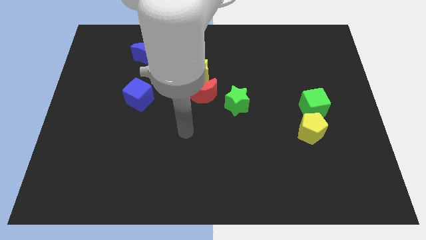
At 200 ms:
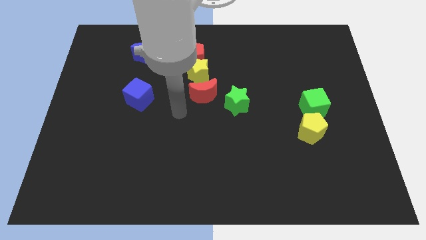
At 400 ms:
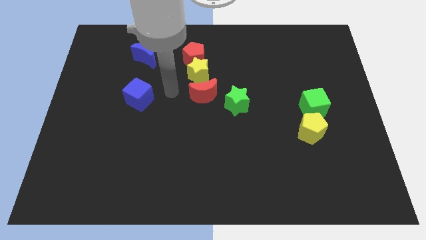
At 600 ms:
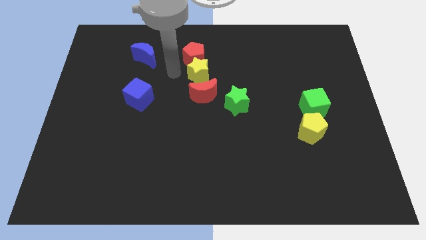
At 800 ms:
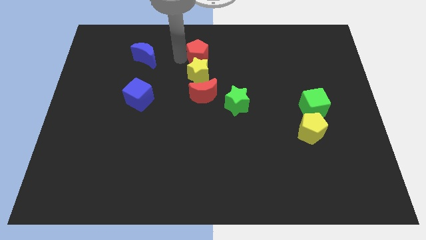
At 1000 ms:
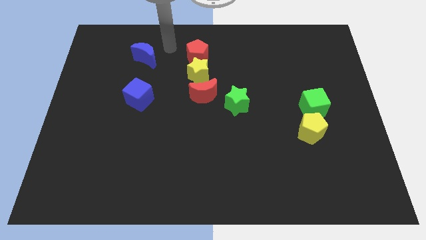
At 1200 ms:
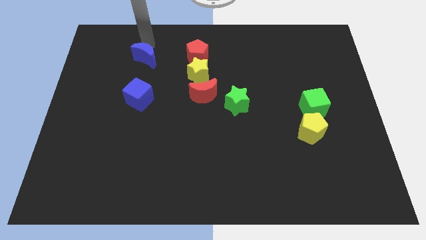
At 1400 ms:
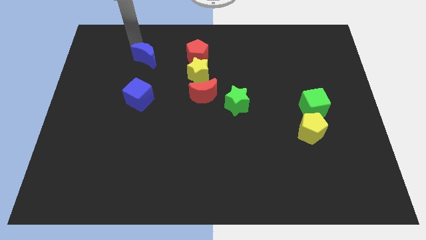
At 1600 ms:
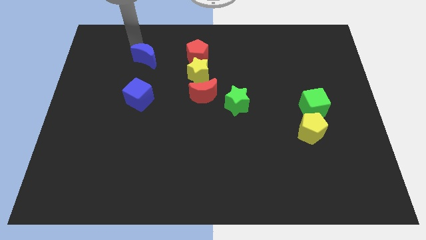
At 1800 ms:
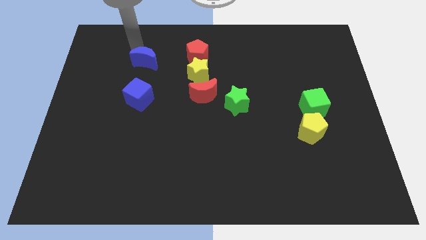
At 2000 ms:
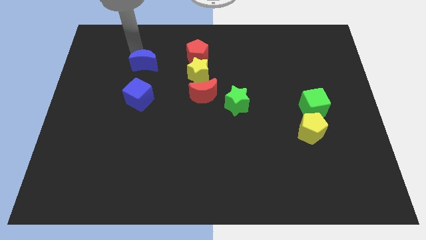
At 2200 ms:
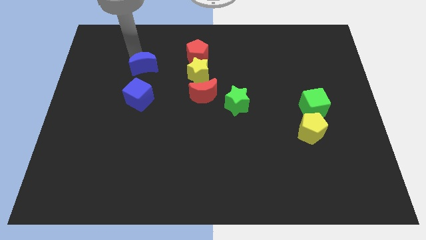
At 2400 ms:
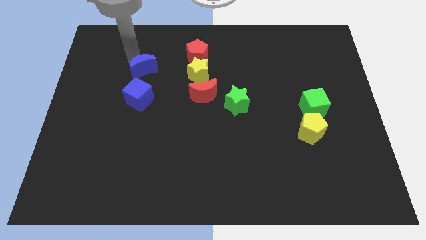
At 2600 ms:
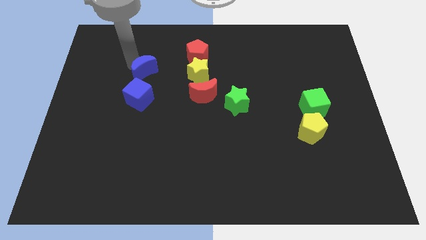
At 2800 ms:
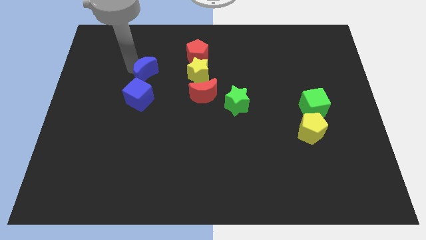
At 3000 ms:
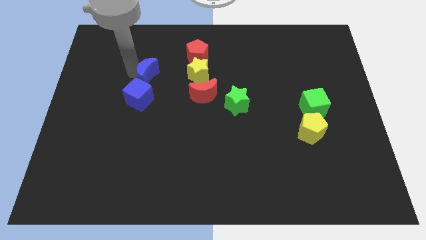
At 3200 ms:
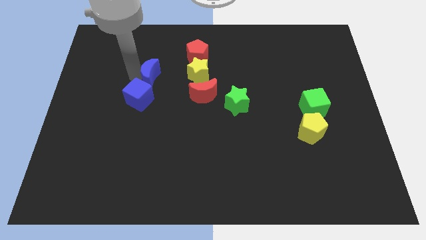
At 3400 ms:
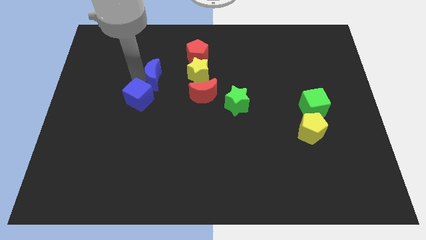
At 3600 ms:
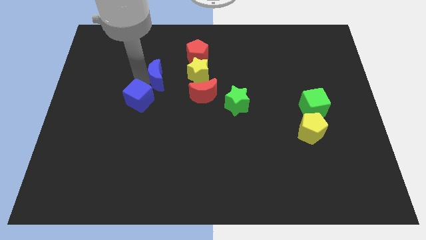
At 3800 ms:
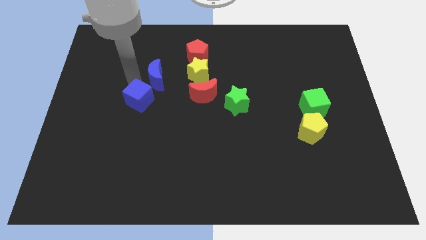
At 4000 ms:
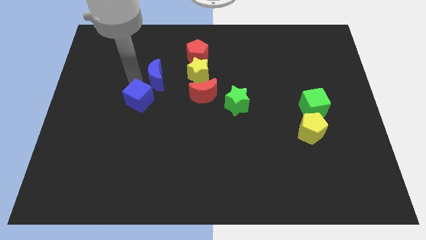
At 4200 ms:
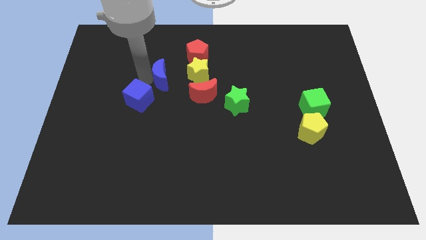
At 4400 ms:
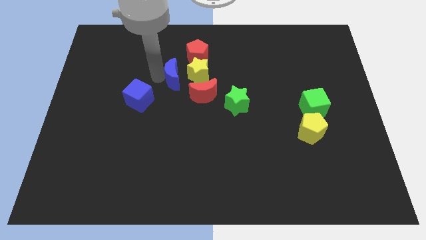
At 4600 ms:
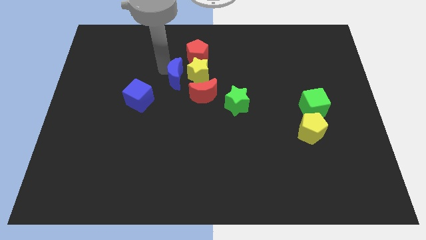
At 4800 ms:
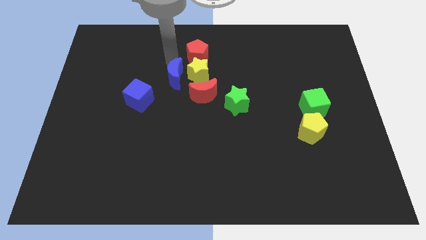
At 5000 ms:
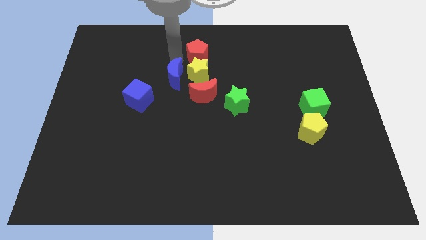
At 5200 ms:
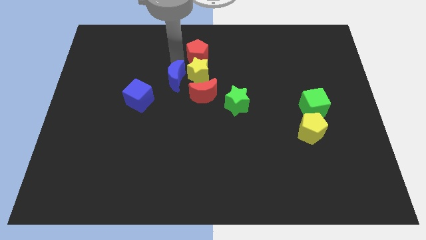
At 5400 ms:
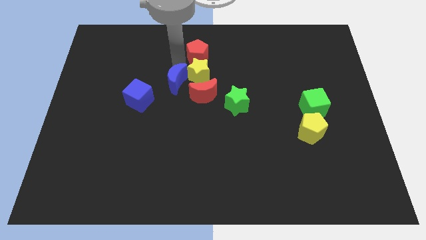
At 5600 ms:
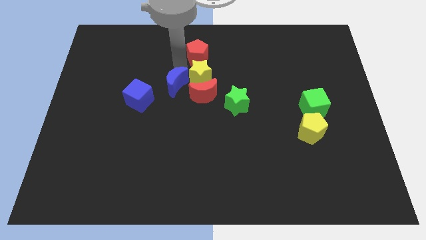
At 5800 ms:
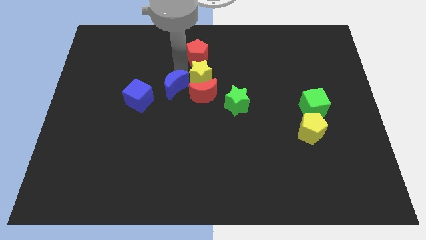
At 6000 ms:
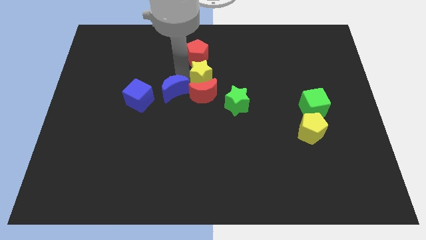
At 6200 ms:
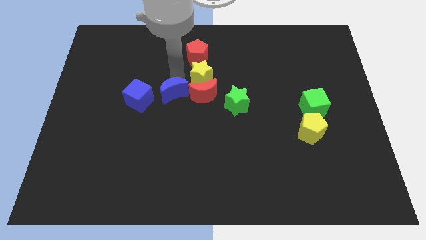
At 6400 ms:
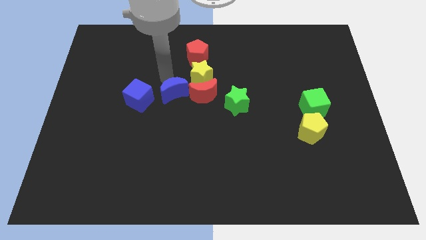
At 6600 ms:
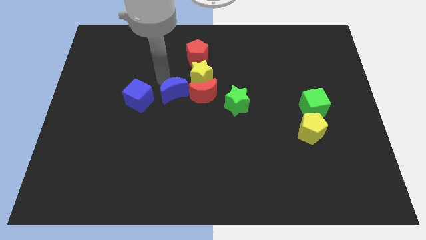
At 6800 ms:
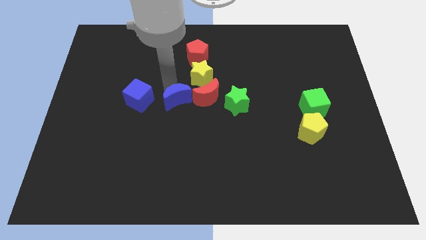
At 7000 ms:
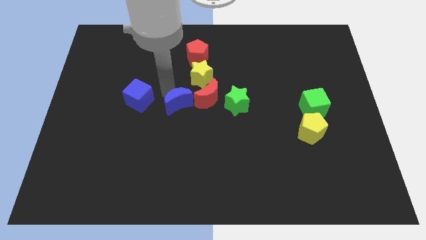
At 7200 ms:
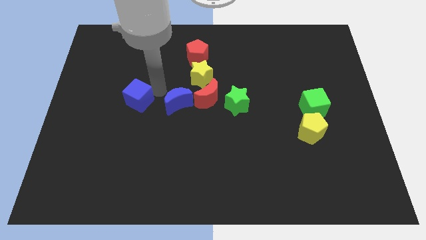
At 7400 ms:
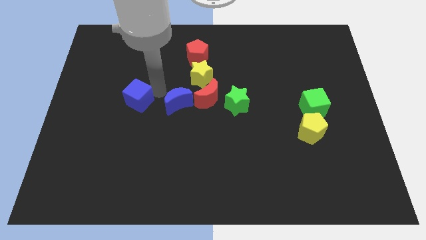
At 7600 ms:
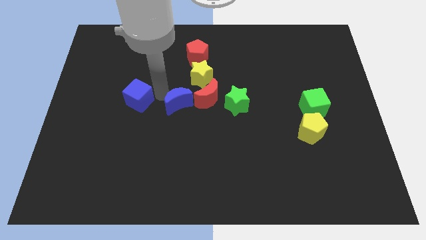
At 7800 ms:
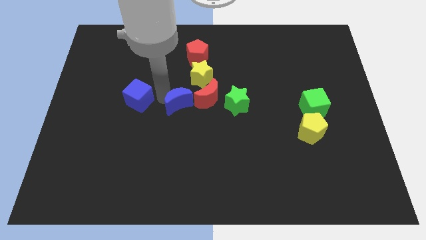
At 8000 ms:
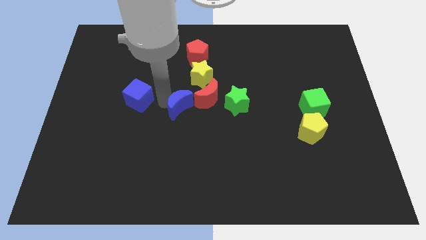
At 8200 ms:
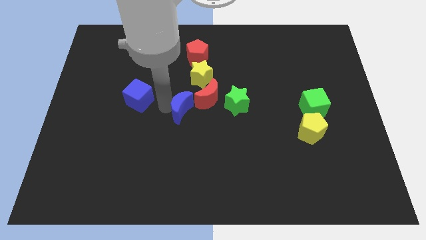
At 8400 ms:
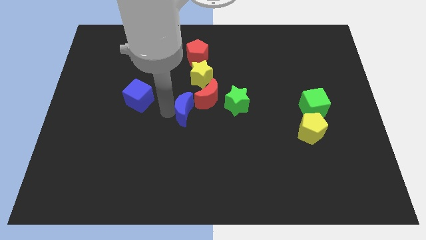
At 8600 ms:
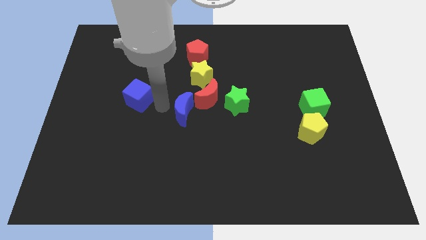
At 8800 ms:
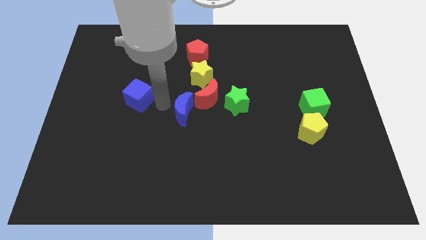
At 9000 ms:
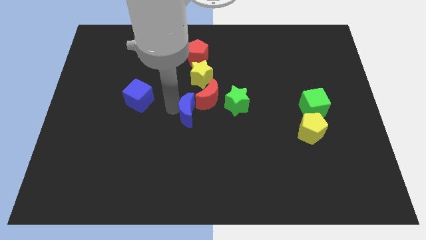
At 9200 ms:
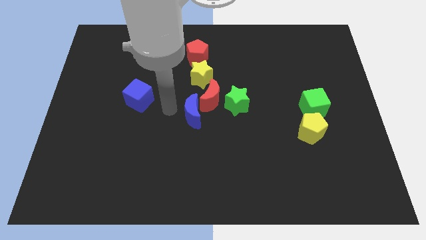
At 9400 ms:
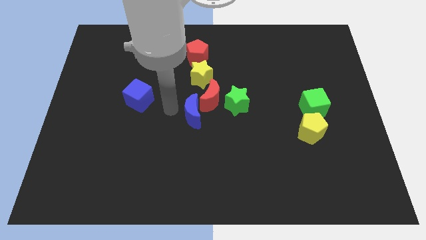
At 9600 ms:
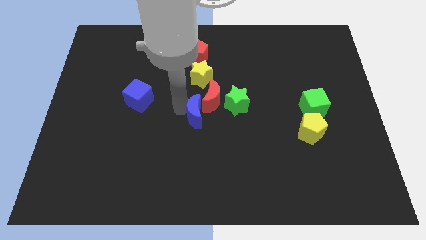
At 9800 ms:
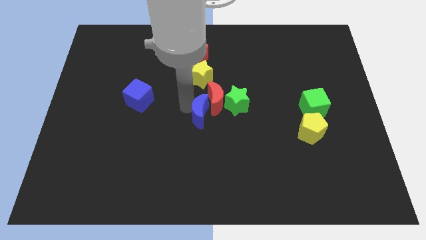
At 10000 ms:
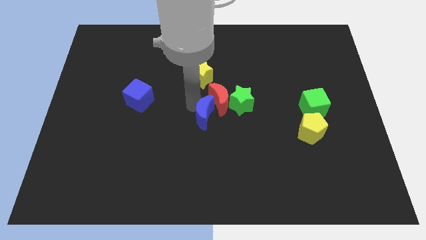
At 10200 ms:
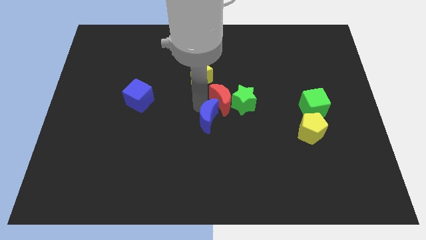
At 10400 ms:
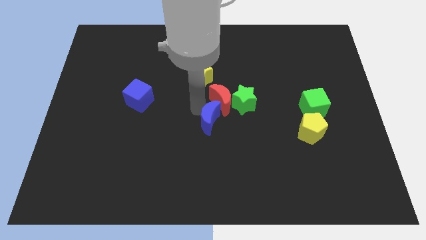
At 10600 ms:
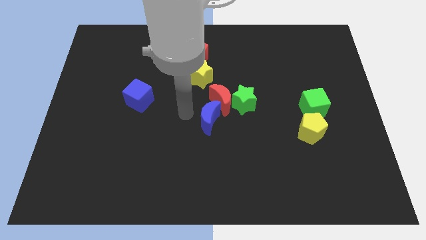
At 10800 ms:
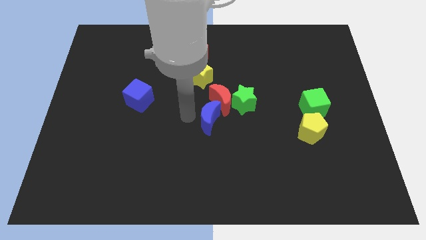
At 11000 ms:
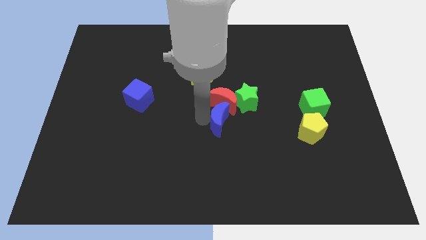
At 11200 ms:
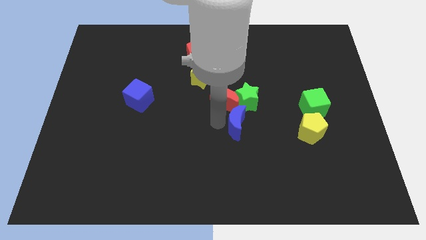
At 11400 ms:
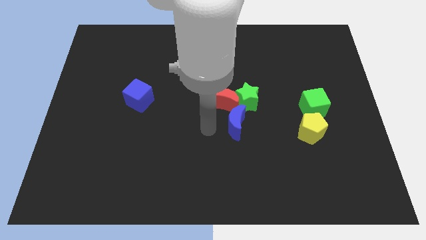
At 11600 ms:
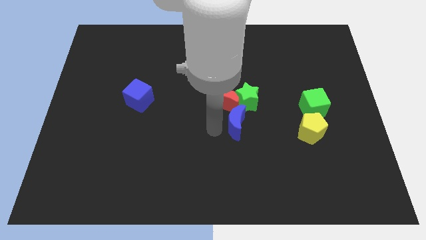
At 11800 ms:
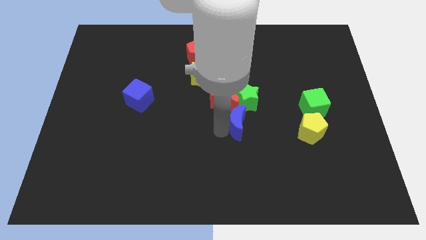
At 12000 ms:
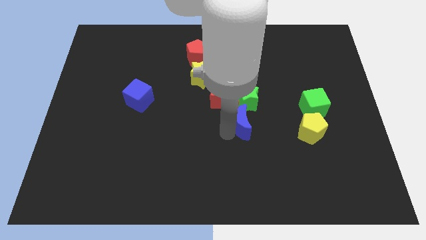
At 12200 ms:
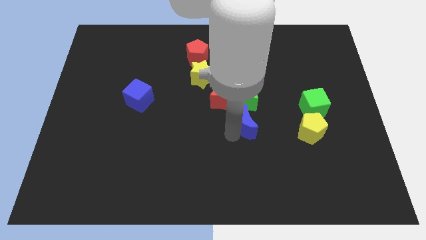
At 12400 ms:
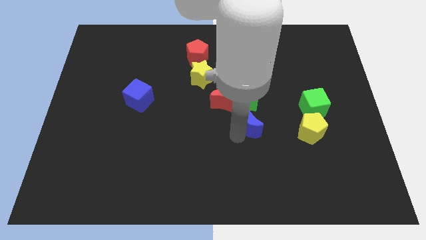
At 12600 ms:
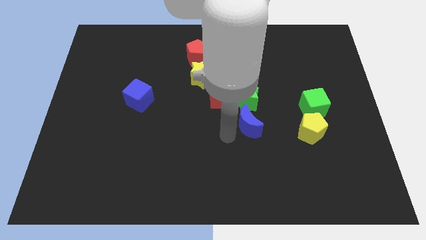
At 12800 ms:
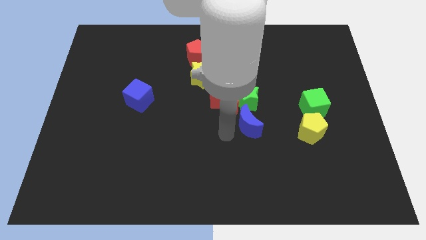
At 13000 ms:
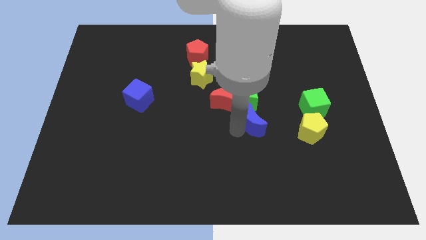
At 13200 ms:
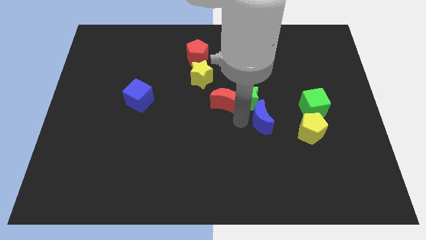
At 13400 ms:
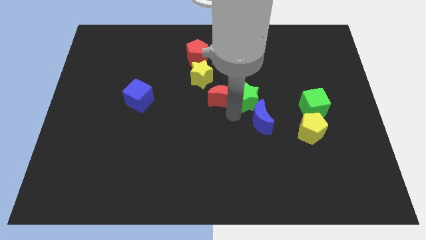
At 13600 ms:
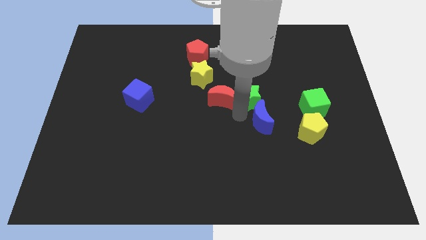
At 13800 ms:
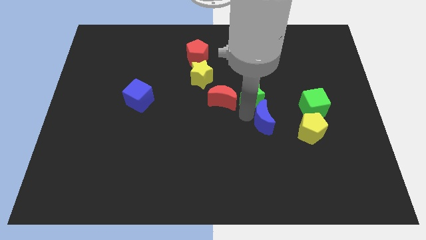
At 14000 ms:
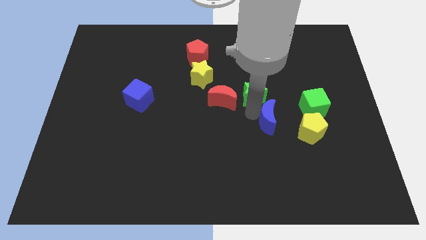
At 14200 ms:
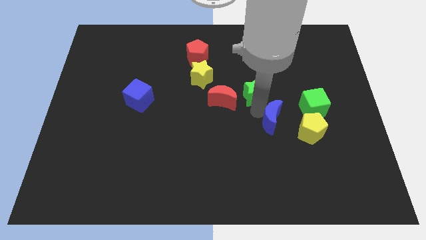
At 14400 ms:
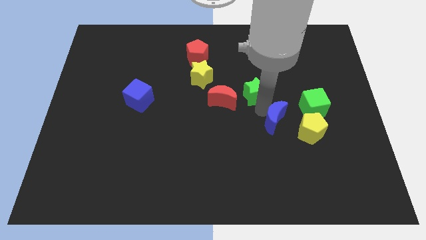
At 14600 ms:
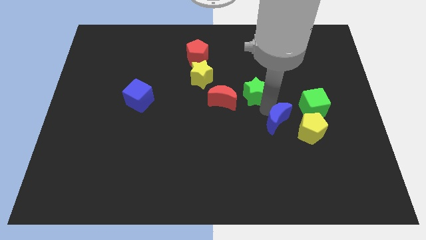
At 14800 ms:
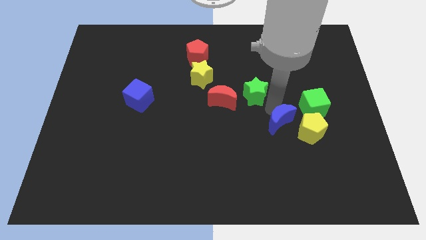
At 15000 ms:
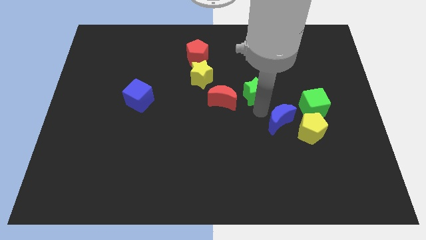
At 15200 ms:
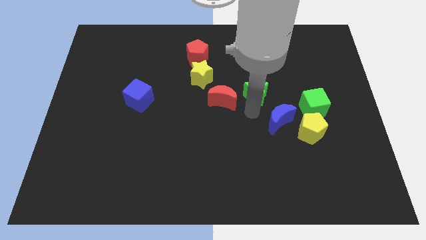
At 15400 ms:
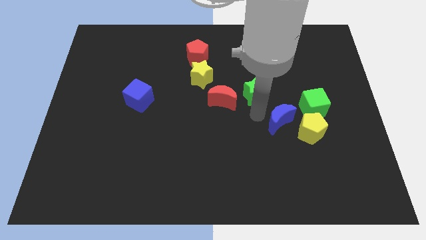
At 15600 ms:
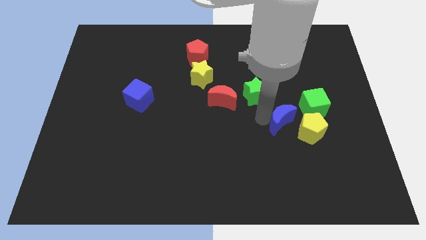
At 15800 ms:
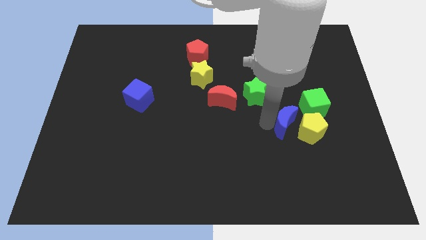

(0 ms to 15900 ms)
put the blue moon next to the yellow pentagon
